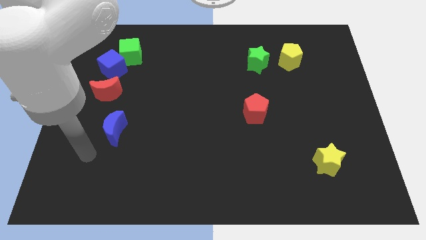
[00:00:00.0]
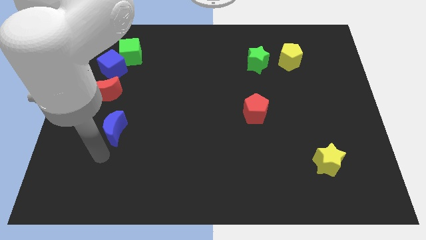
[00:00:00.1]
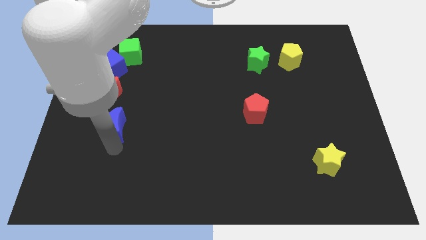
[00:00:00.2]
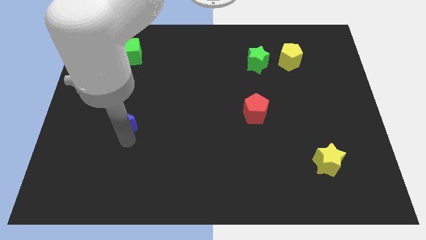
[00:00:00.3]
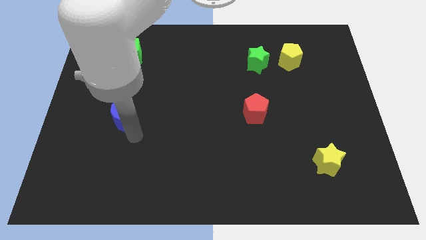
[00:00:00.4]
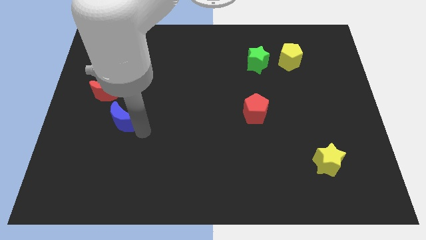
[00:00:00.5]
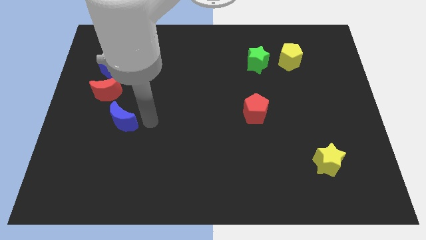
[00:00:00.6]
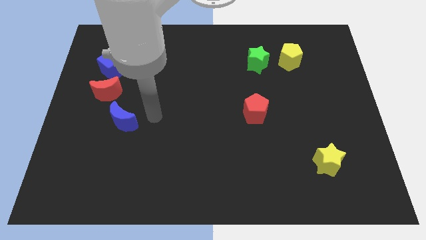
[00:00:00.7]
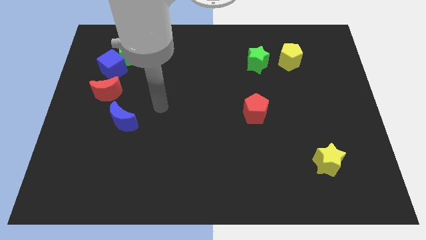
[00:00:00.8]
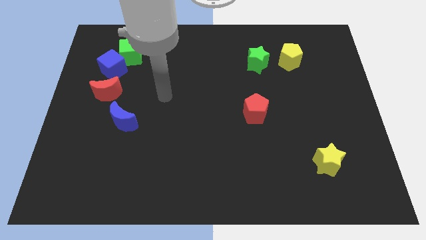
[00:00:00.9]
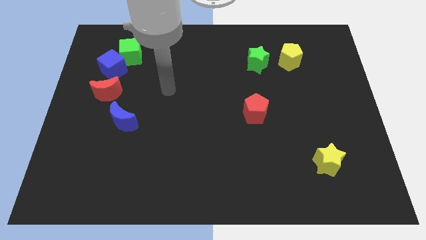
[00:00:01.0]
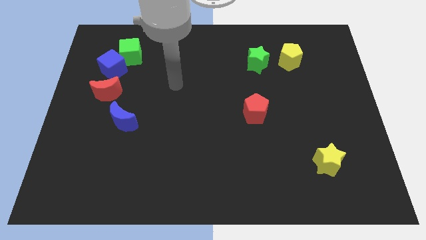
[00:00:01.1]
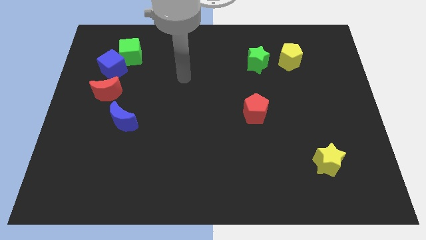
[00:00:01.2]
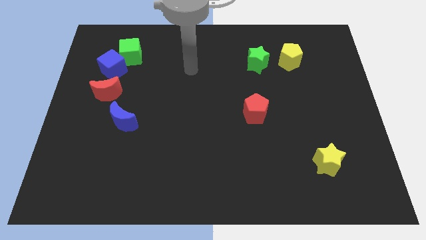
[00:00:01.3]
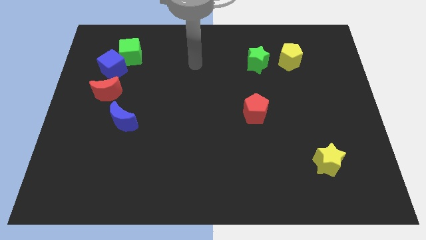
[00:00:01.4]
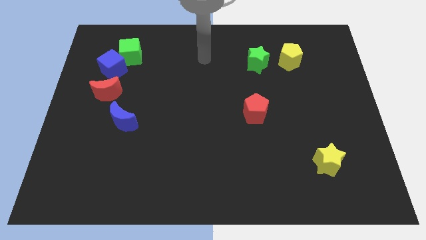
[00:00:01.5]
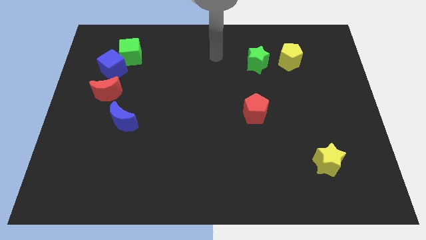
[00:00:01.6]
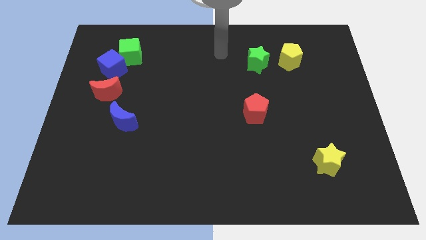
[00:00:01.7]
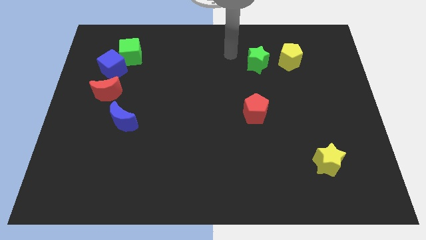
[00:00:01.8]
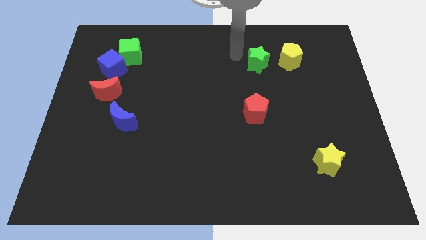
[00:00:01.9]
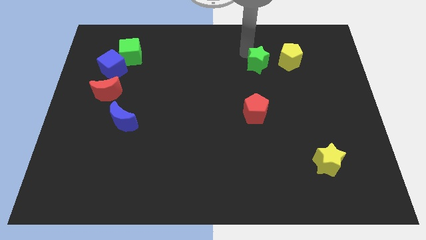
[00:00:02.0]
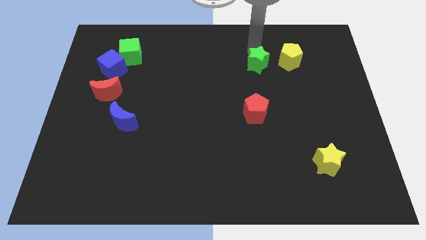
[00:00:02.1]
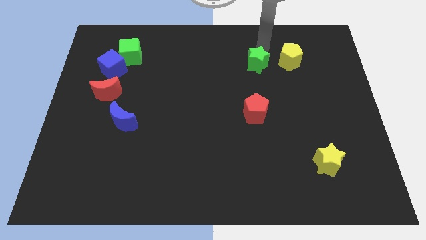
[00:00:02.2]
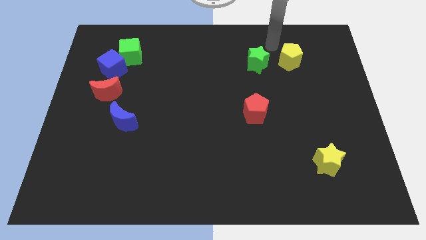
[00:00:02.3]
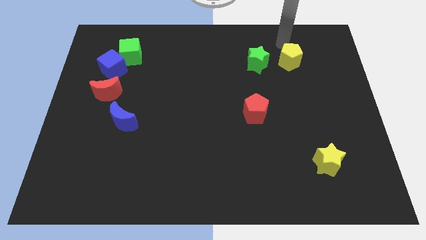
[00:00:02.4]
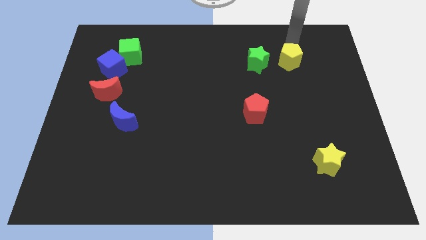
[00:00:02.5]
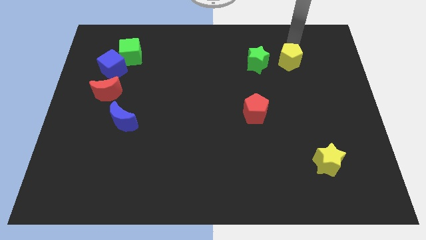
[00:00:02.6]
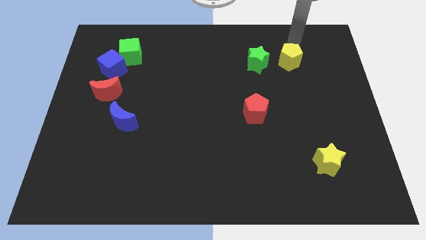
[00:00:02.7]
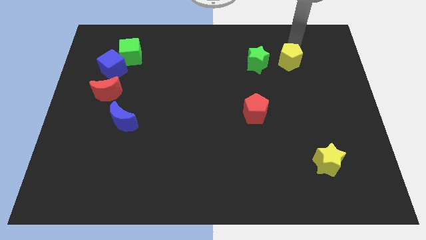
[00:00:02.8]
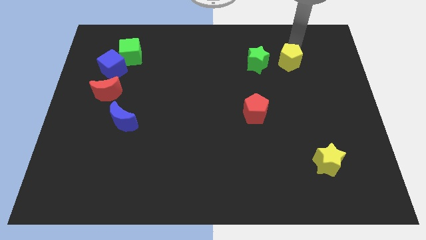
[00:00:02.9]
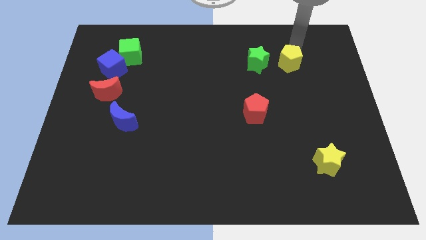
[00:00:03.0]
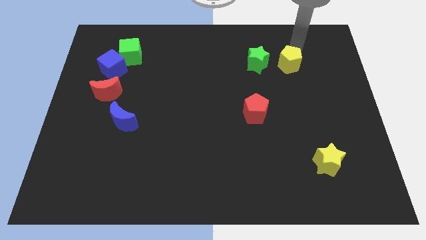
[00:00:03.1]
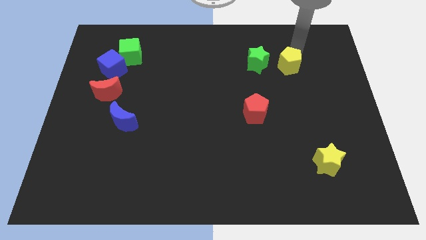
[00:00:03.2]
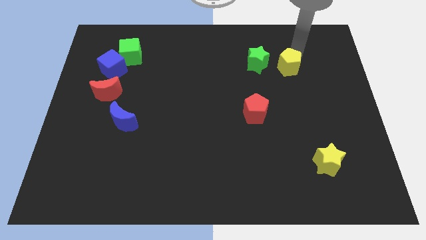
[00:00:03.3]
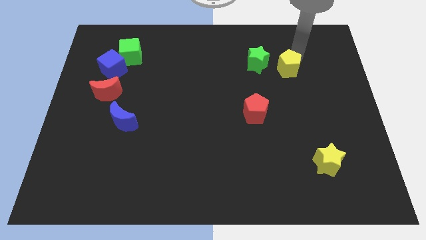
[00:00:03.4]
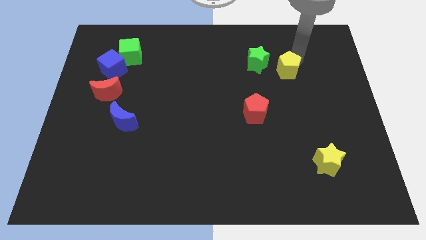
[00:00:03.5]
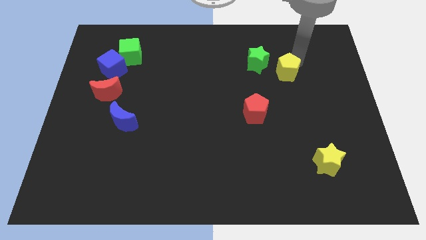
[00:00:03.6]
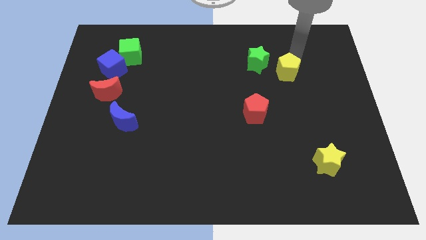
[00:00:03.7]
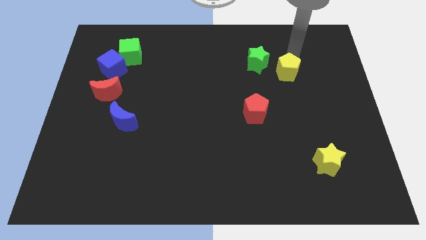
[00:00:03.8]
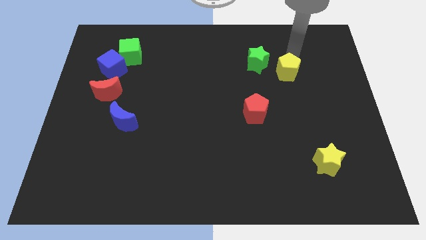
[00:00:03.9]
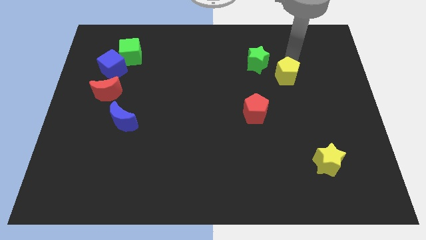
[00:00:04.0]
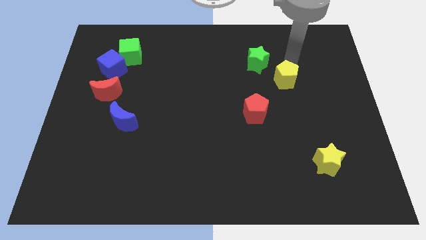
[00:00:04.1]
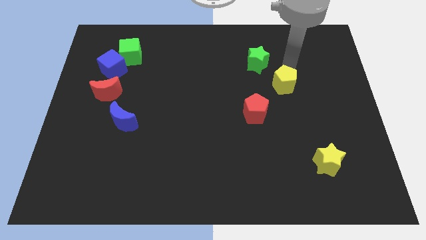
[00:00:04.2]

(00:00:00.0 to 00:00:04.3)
slightly move the yellow pentagon downwards

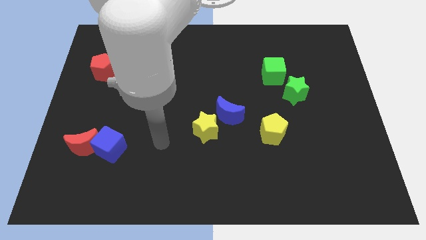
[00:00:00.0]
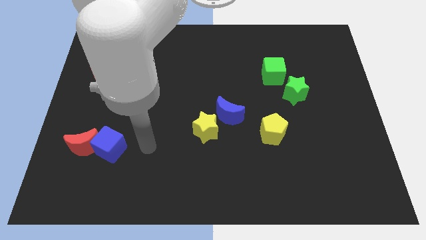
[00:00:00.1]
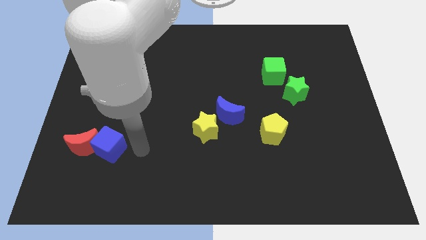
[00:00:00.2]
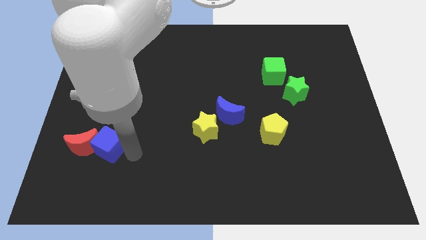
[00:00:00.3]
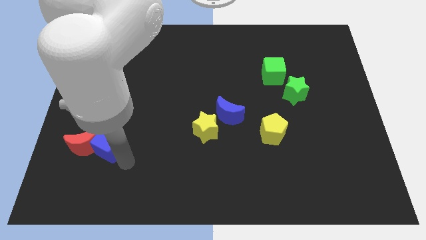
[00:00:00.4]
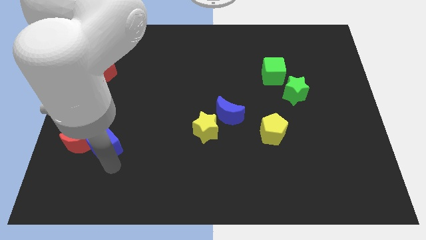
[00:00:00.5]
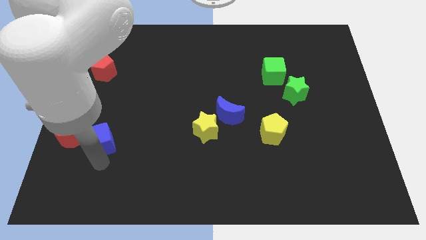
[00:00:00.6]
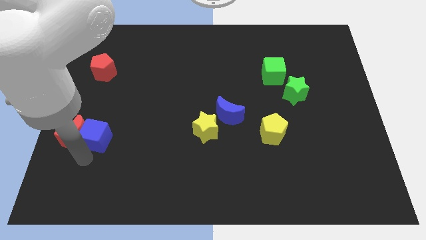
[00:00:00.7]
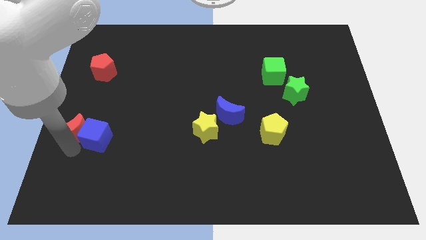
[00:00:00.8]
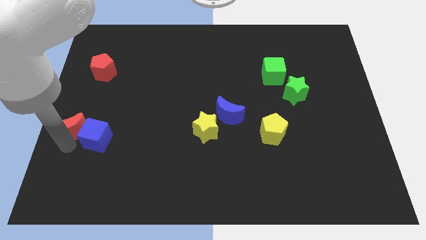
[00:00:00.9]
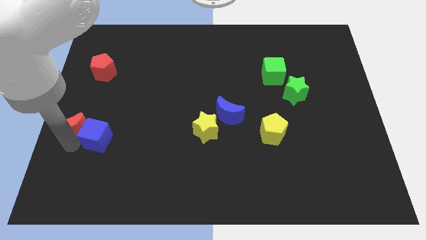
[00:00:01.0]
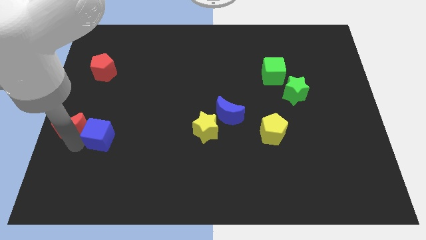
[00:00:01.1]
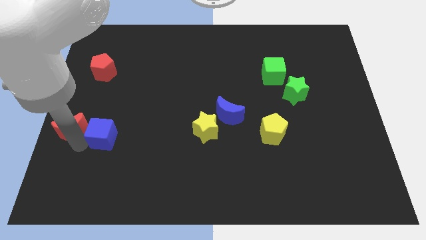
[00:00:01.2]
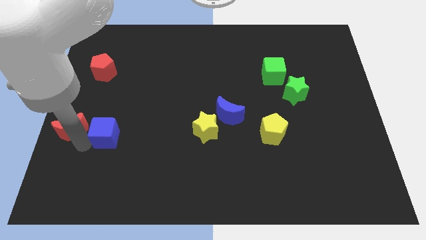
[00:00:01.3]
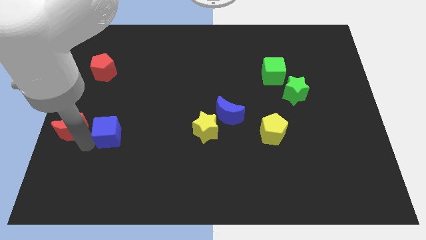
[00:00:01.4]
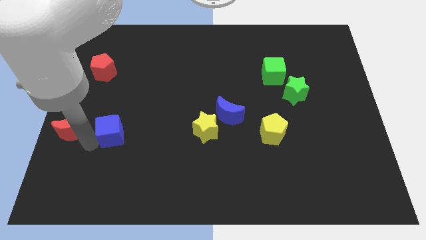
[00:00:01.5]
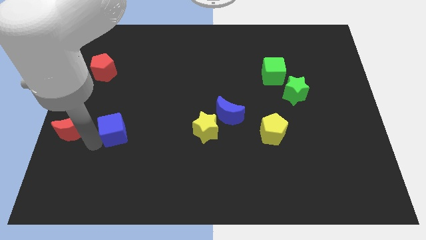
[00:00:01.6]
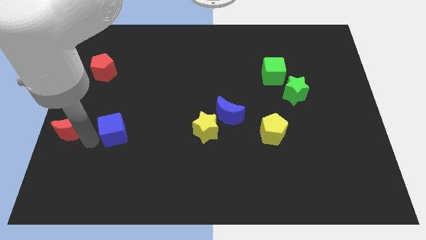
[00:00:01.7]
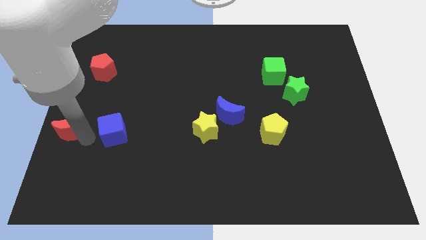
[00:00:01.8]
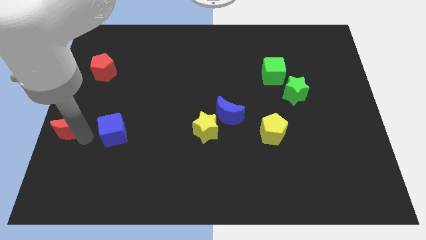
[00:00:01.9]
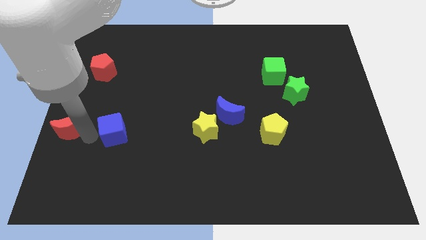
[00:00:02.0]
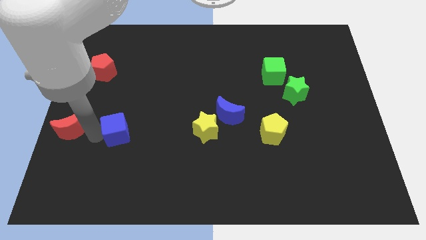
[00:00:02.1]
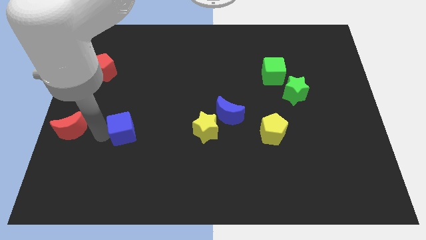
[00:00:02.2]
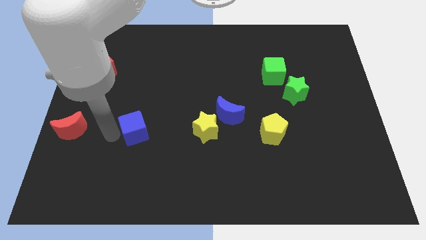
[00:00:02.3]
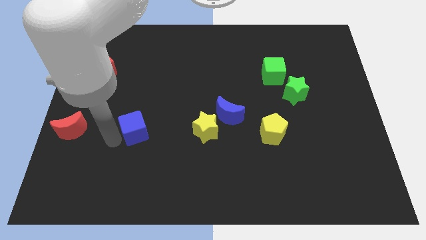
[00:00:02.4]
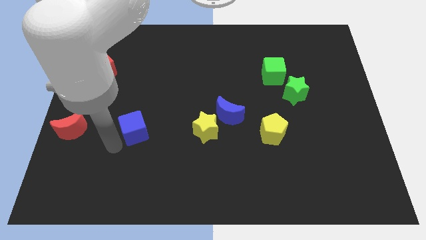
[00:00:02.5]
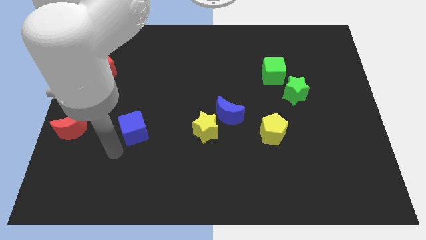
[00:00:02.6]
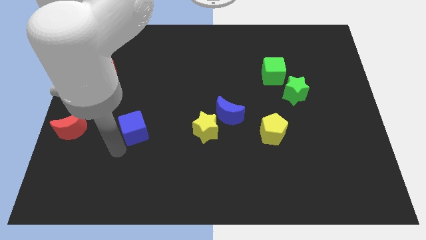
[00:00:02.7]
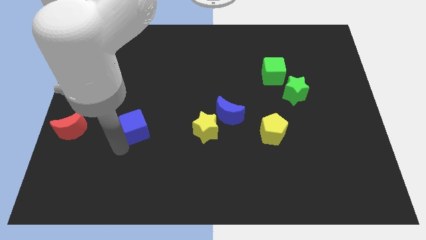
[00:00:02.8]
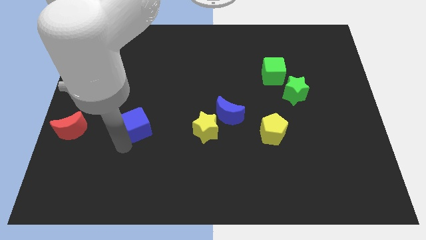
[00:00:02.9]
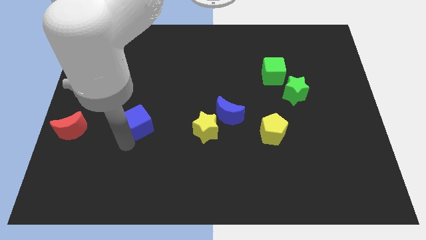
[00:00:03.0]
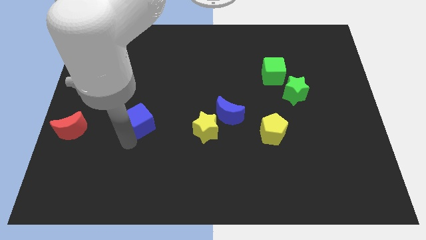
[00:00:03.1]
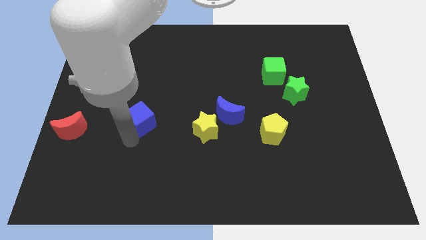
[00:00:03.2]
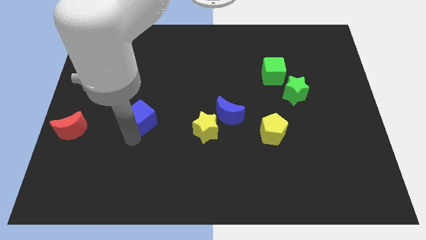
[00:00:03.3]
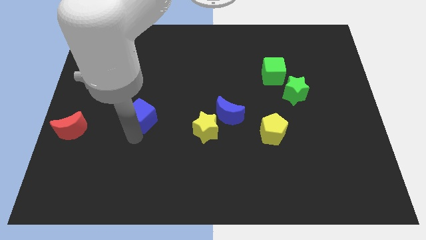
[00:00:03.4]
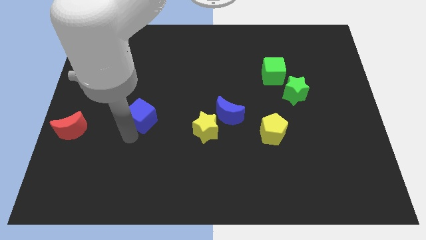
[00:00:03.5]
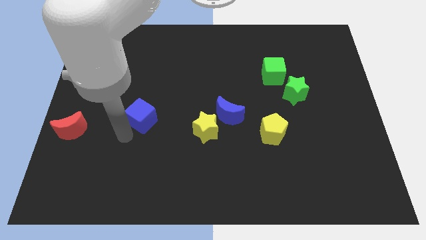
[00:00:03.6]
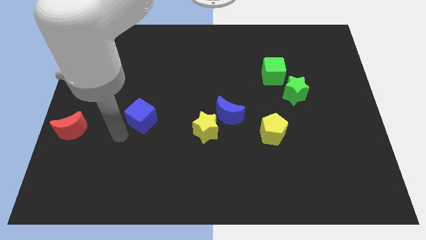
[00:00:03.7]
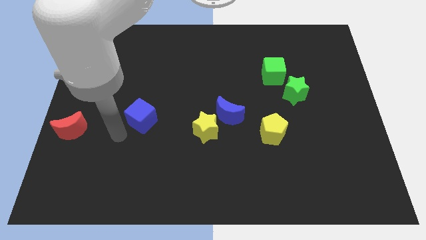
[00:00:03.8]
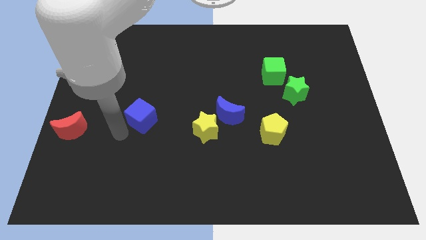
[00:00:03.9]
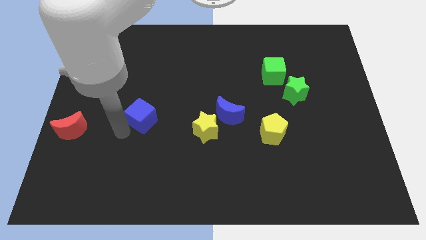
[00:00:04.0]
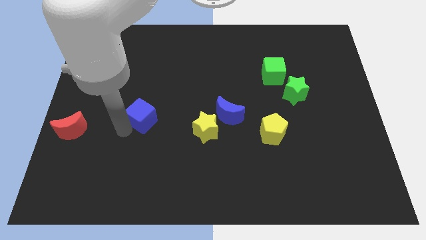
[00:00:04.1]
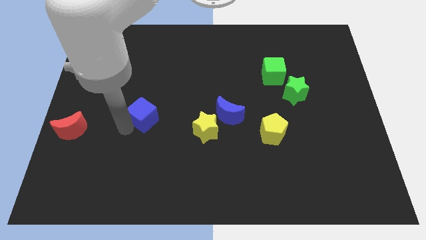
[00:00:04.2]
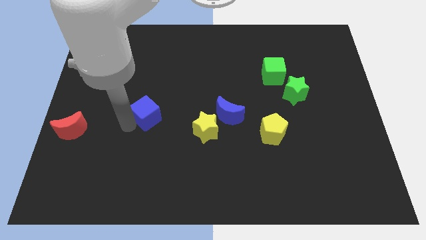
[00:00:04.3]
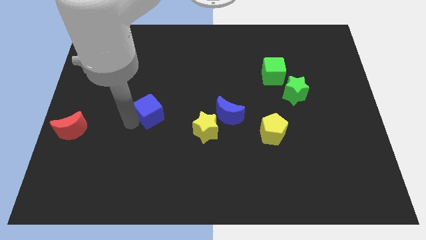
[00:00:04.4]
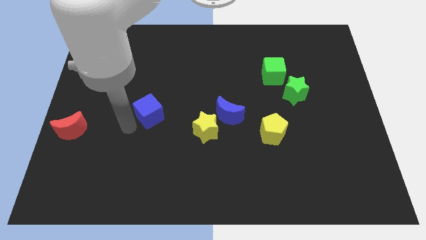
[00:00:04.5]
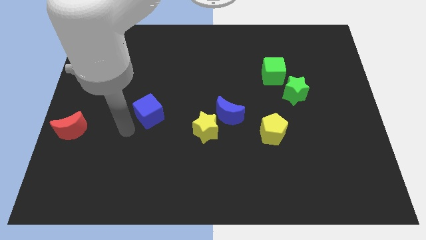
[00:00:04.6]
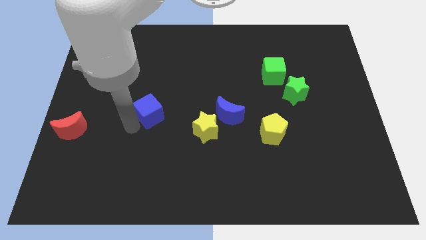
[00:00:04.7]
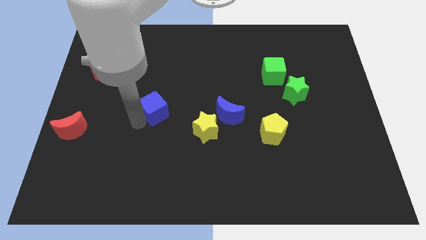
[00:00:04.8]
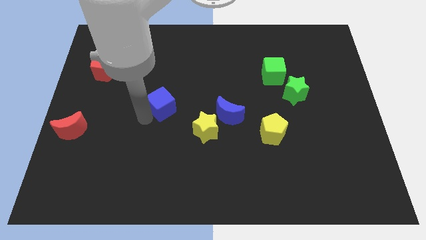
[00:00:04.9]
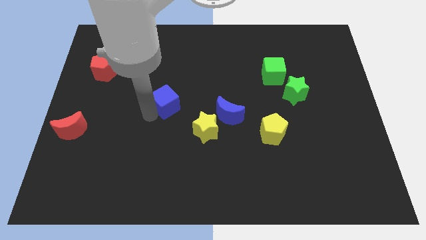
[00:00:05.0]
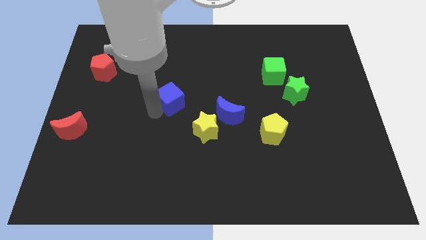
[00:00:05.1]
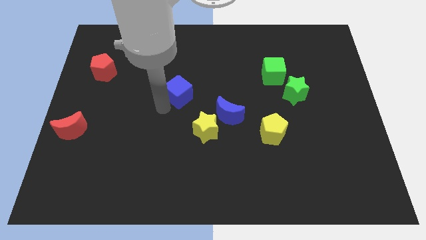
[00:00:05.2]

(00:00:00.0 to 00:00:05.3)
push the blue cube up and right diagonally
